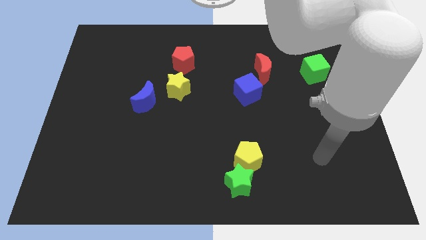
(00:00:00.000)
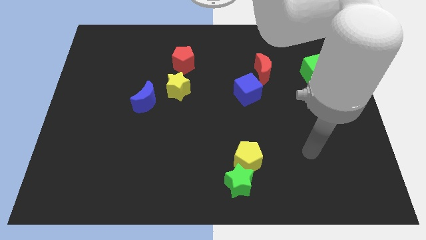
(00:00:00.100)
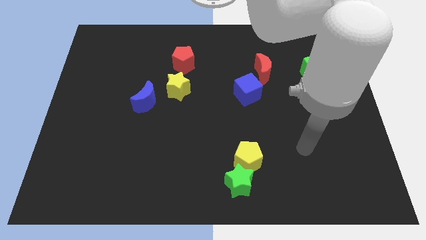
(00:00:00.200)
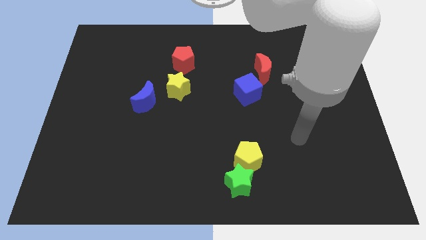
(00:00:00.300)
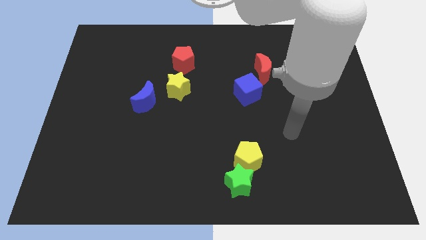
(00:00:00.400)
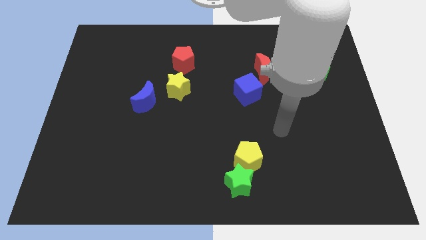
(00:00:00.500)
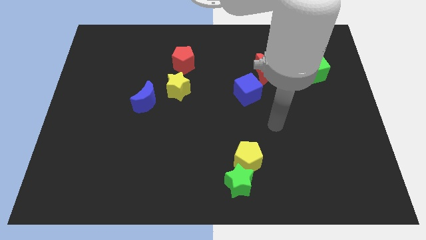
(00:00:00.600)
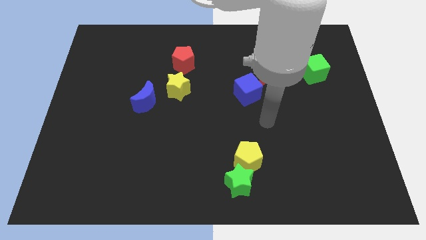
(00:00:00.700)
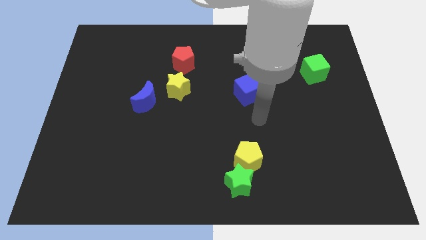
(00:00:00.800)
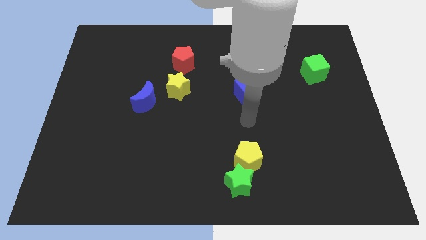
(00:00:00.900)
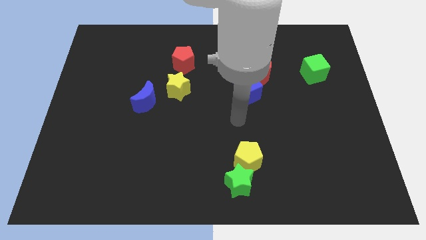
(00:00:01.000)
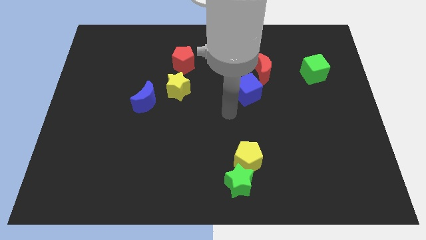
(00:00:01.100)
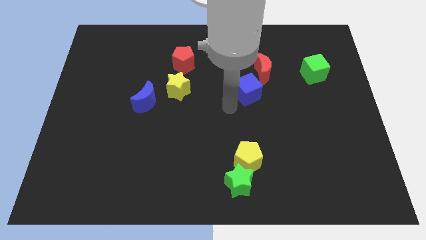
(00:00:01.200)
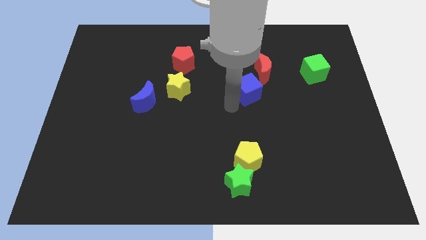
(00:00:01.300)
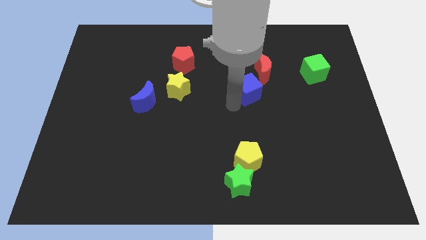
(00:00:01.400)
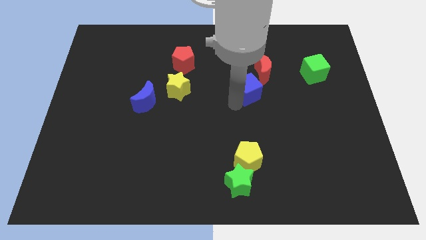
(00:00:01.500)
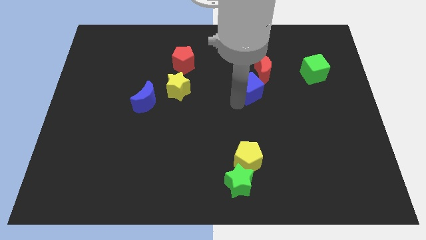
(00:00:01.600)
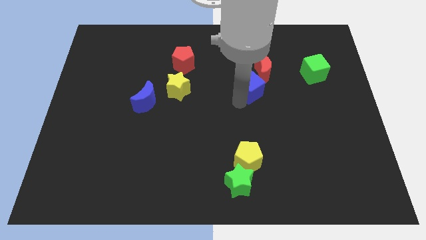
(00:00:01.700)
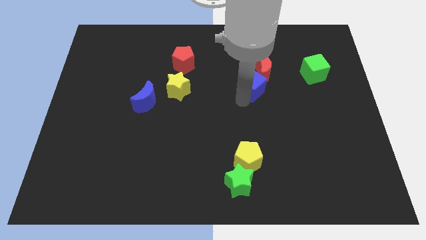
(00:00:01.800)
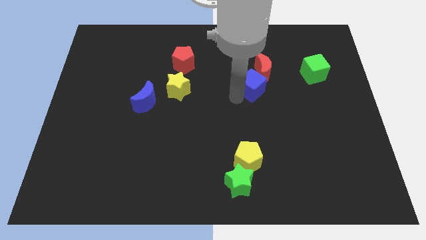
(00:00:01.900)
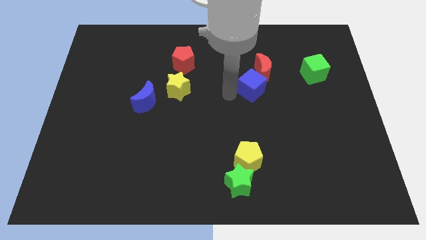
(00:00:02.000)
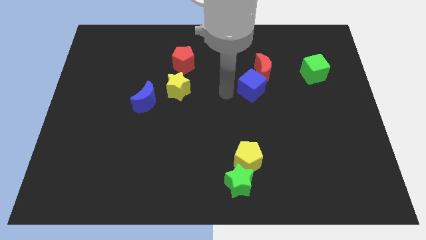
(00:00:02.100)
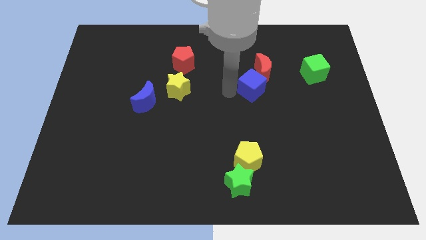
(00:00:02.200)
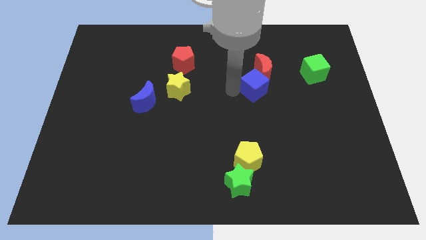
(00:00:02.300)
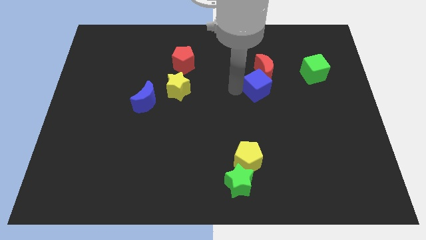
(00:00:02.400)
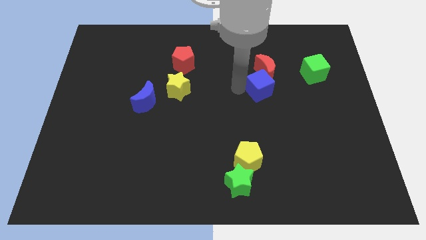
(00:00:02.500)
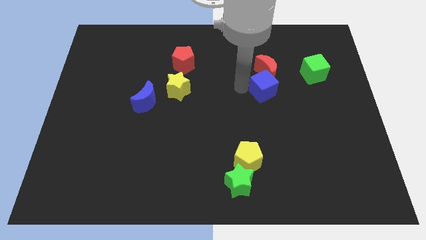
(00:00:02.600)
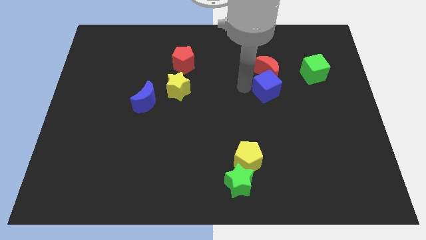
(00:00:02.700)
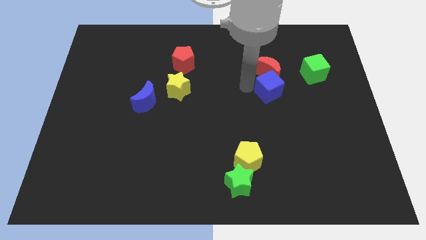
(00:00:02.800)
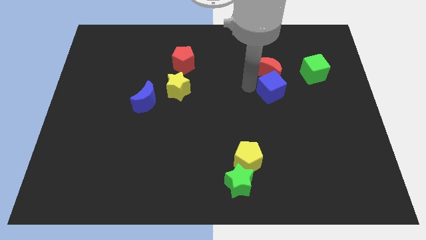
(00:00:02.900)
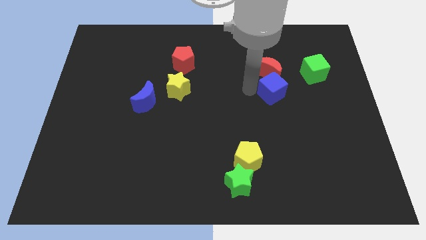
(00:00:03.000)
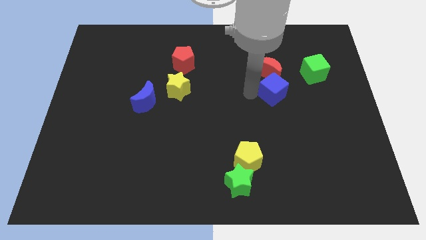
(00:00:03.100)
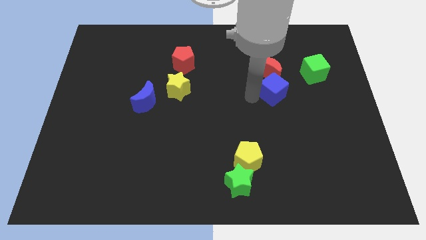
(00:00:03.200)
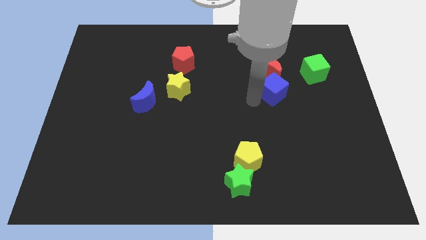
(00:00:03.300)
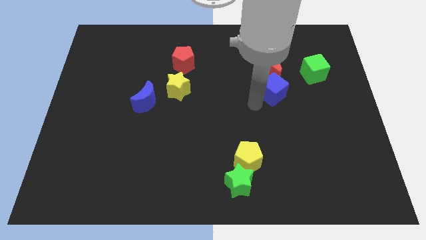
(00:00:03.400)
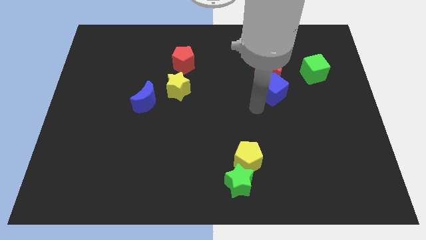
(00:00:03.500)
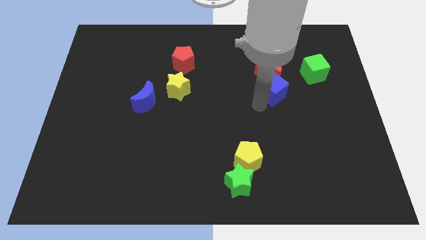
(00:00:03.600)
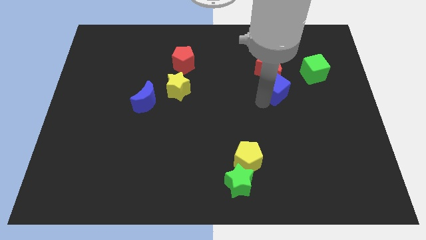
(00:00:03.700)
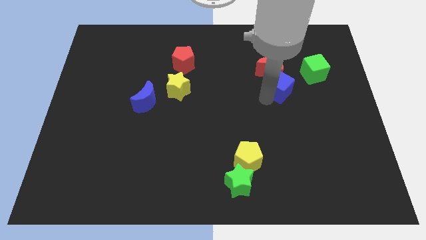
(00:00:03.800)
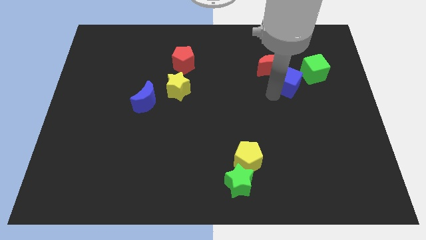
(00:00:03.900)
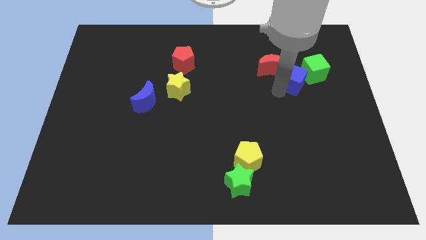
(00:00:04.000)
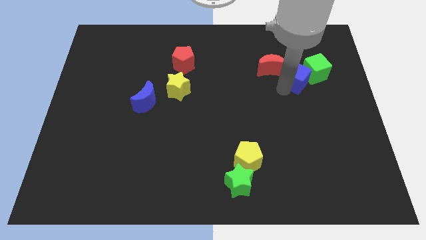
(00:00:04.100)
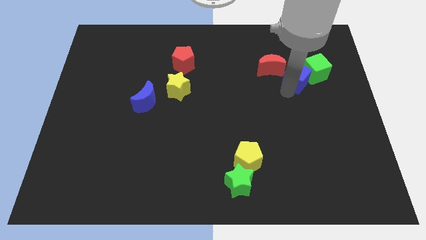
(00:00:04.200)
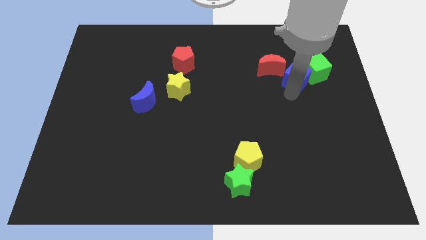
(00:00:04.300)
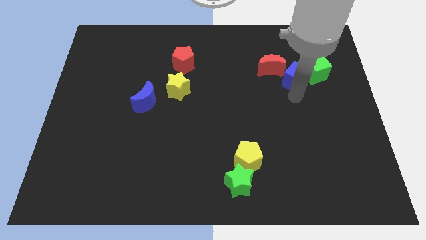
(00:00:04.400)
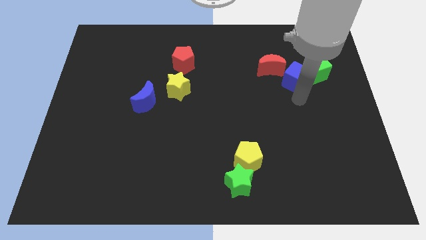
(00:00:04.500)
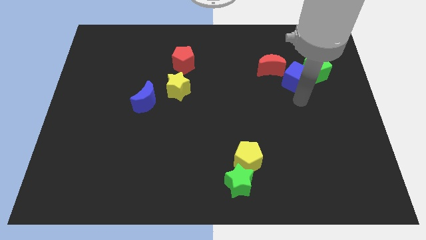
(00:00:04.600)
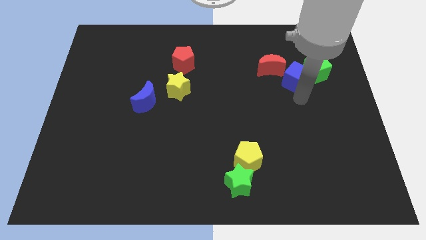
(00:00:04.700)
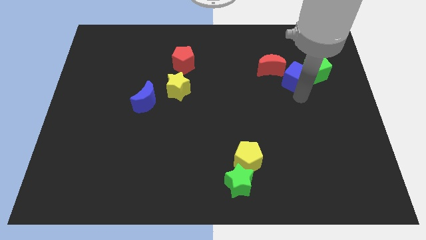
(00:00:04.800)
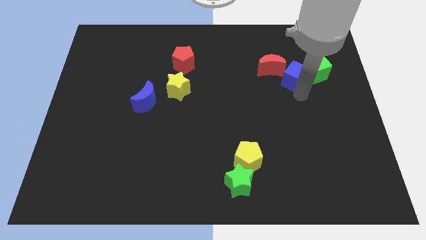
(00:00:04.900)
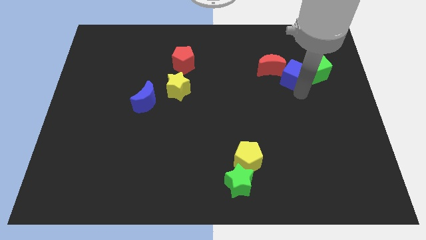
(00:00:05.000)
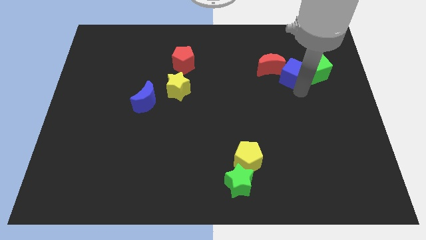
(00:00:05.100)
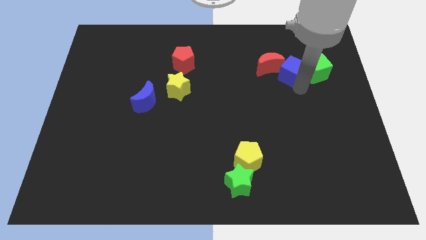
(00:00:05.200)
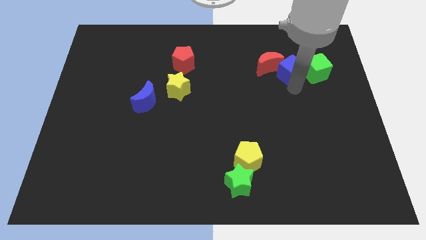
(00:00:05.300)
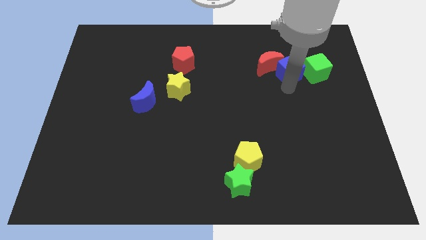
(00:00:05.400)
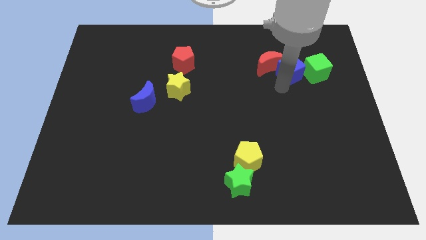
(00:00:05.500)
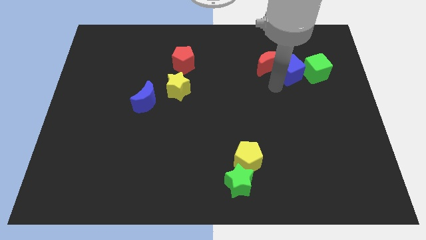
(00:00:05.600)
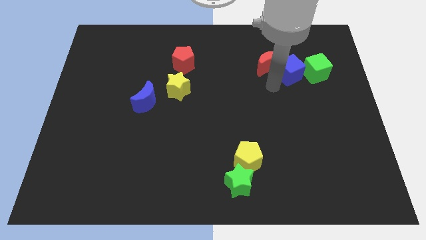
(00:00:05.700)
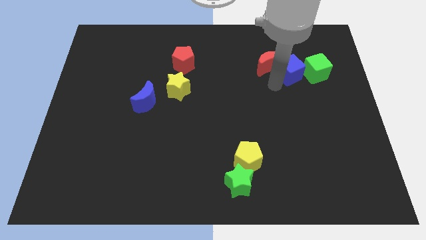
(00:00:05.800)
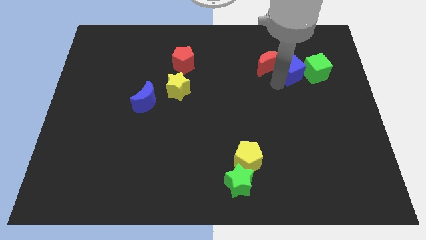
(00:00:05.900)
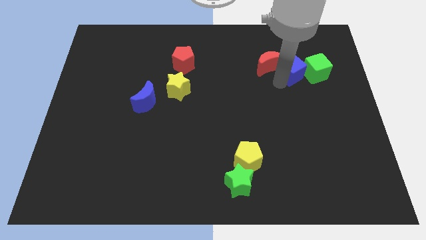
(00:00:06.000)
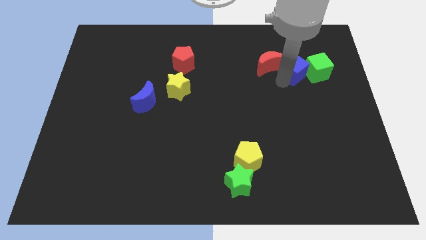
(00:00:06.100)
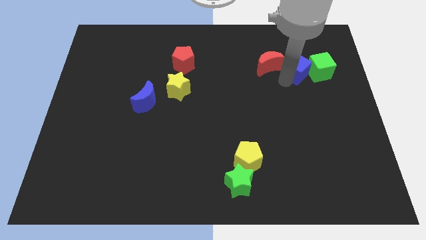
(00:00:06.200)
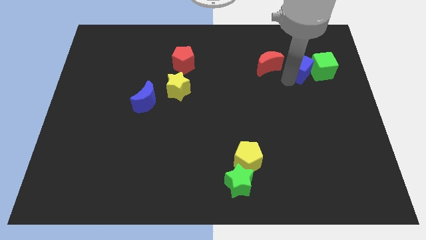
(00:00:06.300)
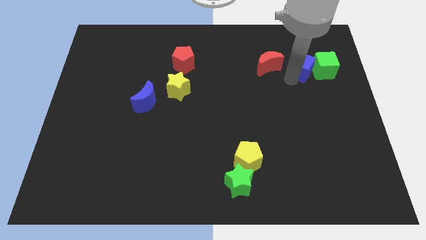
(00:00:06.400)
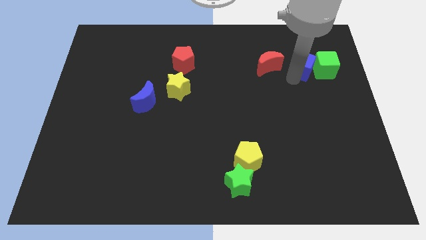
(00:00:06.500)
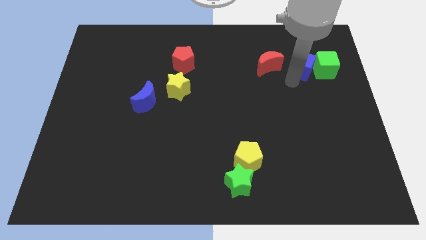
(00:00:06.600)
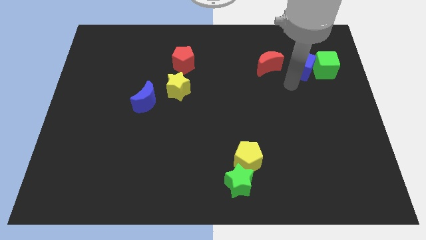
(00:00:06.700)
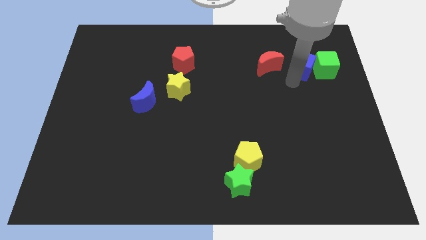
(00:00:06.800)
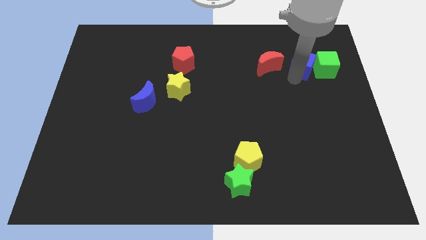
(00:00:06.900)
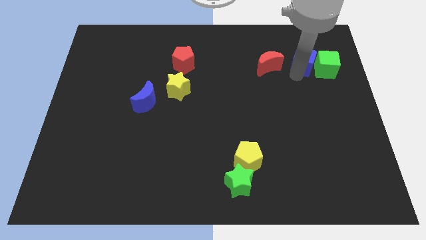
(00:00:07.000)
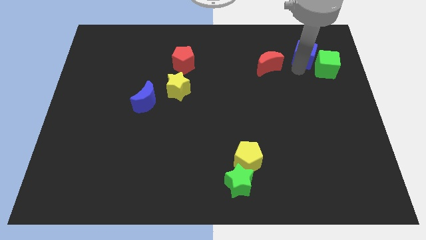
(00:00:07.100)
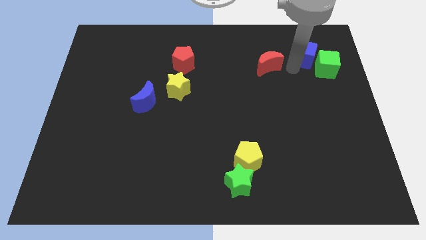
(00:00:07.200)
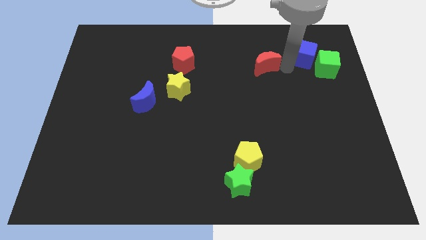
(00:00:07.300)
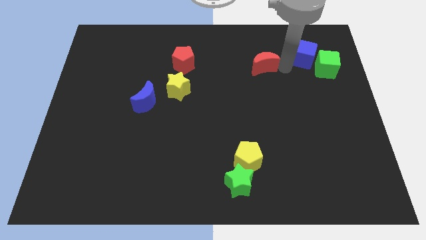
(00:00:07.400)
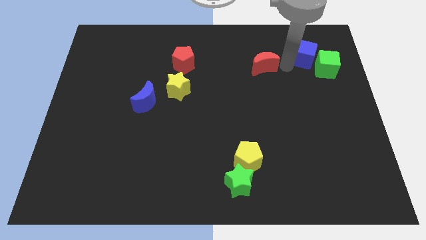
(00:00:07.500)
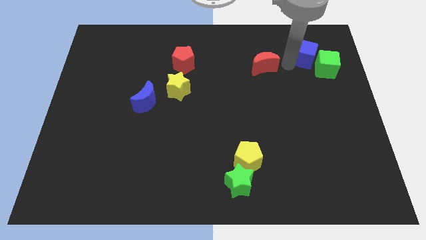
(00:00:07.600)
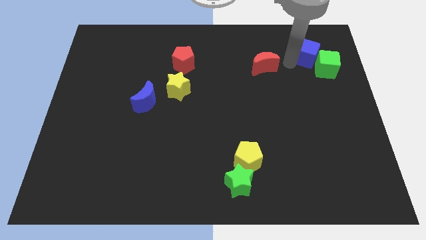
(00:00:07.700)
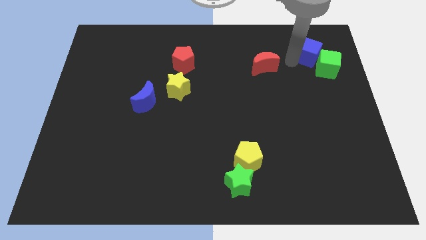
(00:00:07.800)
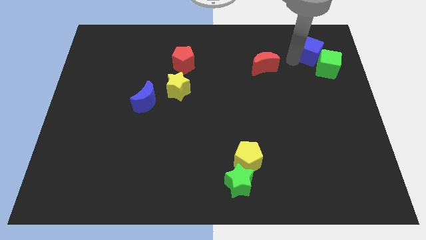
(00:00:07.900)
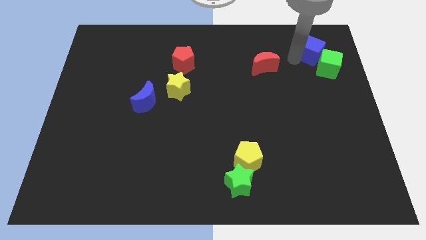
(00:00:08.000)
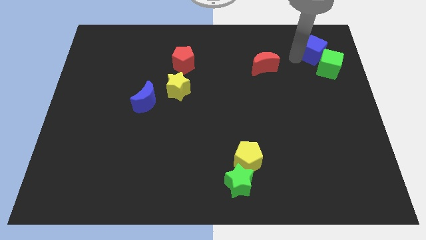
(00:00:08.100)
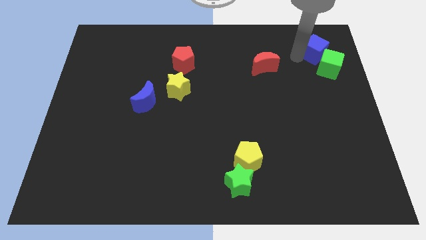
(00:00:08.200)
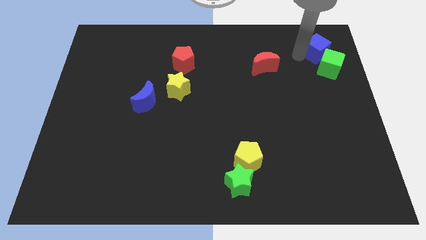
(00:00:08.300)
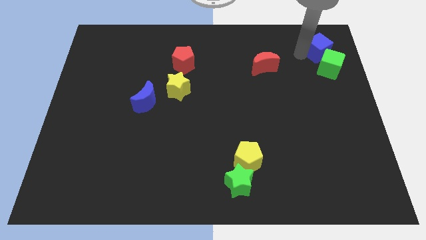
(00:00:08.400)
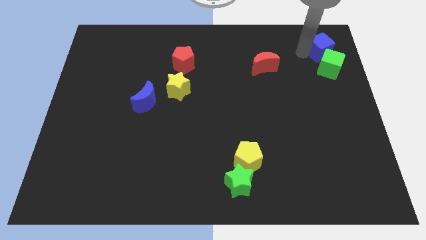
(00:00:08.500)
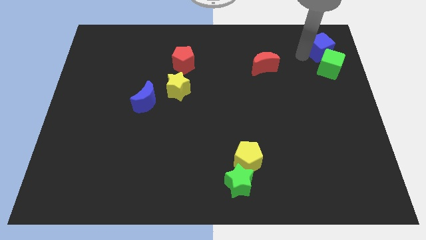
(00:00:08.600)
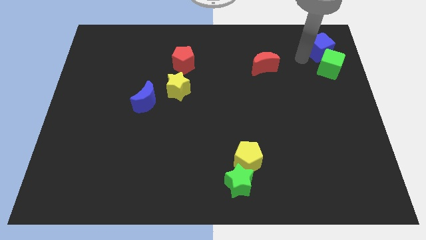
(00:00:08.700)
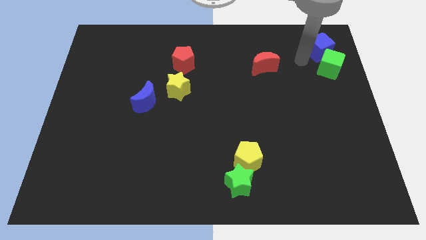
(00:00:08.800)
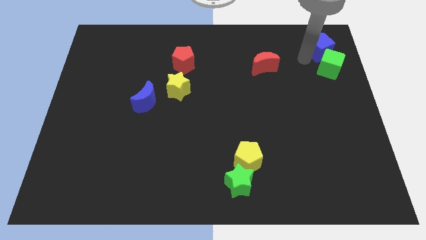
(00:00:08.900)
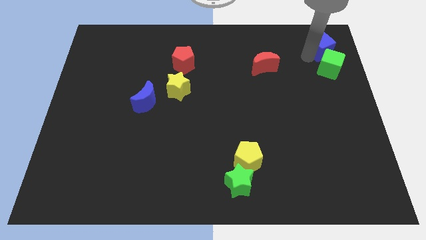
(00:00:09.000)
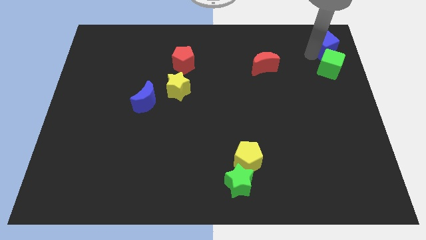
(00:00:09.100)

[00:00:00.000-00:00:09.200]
put the blue cube to the top right corner
